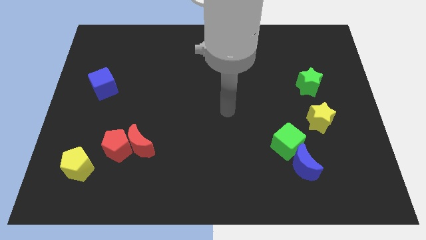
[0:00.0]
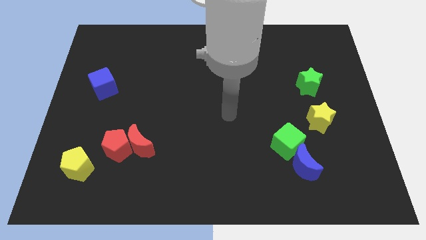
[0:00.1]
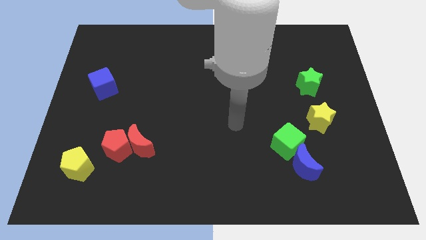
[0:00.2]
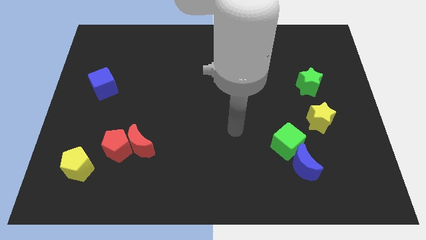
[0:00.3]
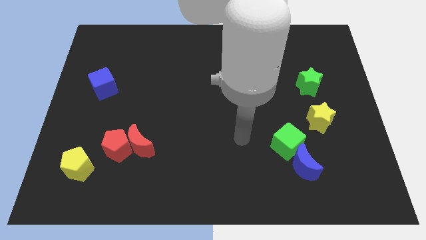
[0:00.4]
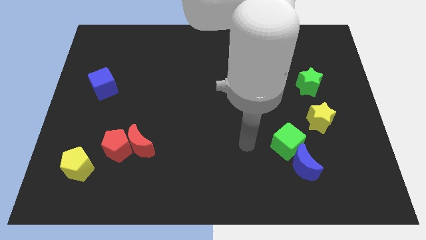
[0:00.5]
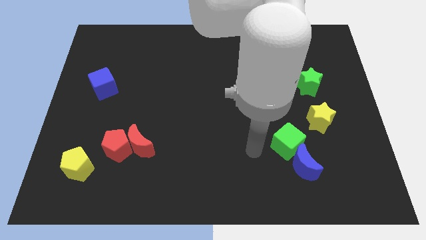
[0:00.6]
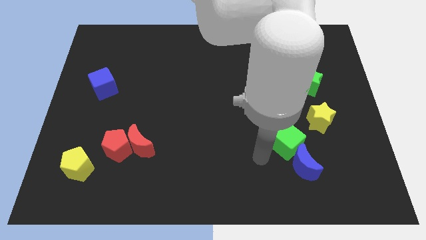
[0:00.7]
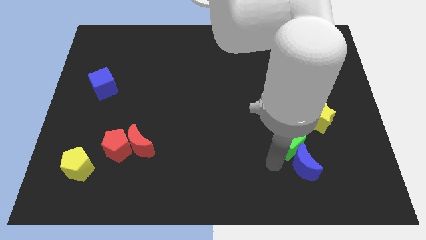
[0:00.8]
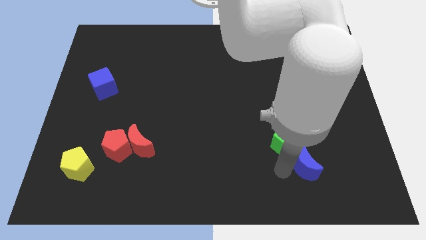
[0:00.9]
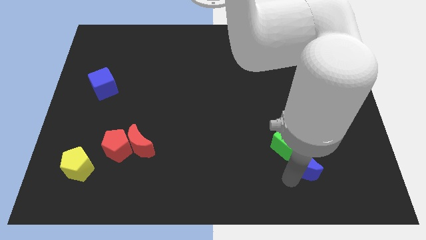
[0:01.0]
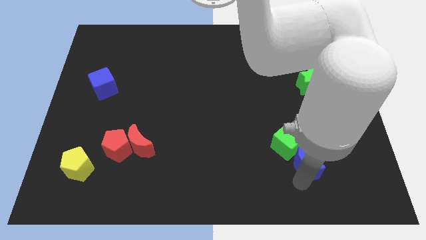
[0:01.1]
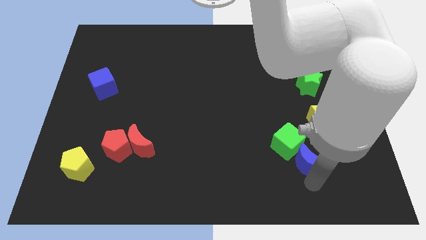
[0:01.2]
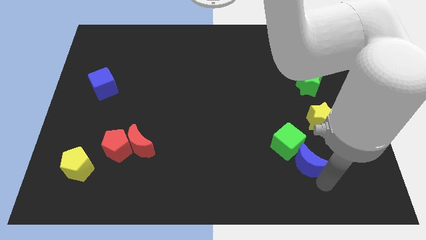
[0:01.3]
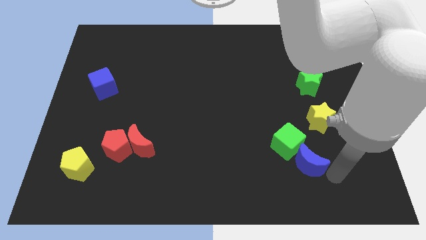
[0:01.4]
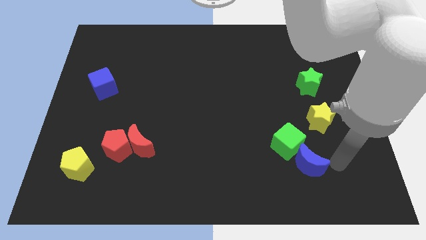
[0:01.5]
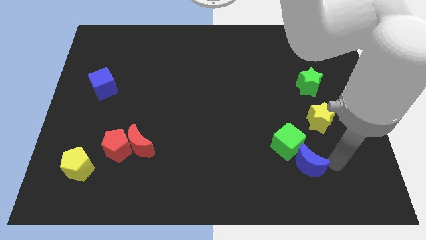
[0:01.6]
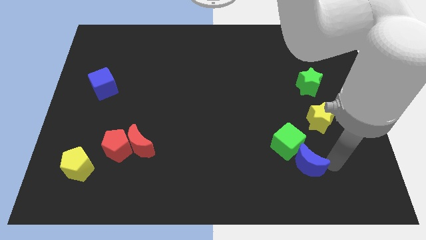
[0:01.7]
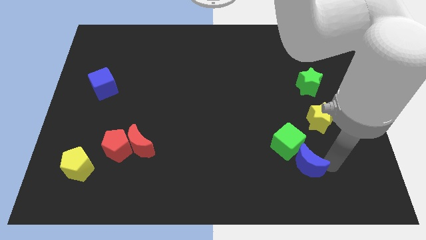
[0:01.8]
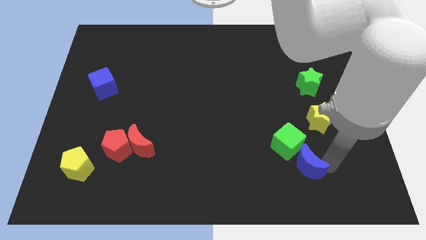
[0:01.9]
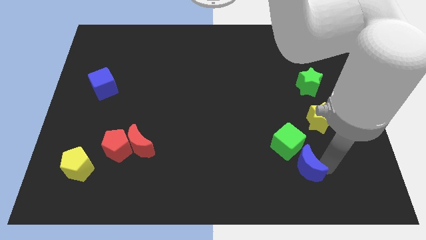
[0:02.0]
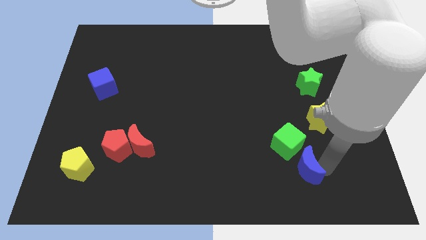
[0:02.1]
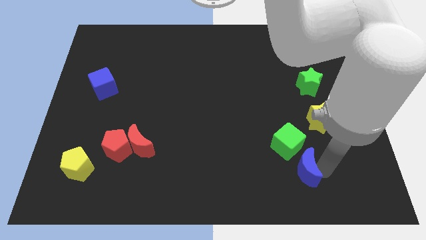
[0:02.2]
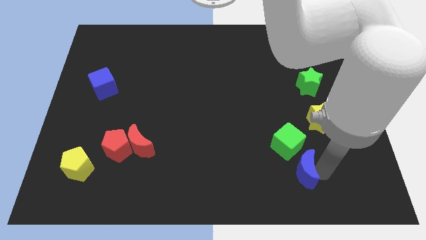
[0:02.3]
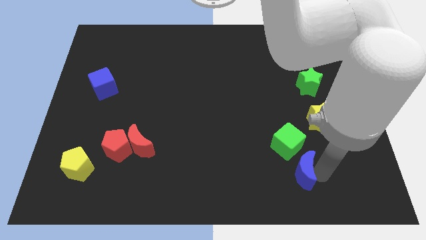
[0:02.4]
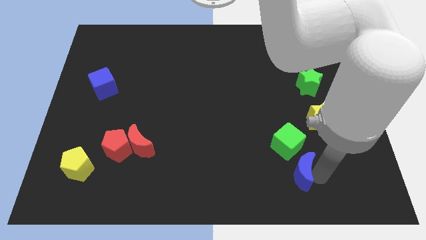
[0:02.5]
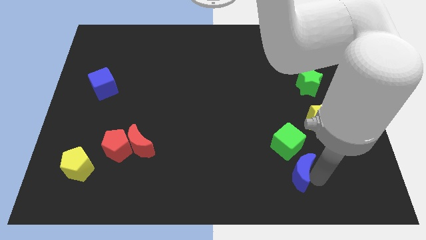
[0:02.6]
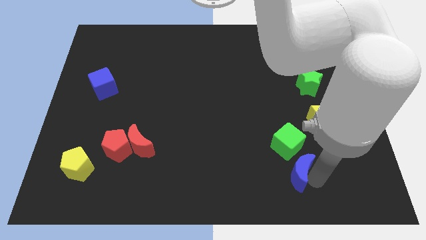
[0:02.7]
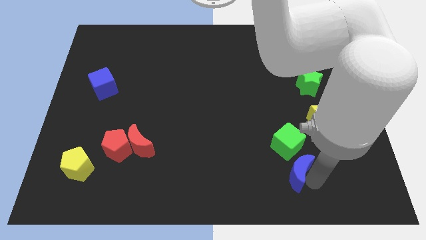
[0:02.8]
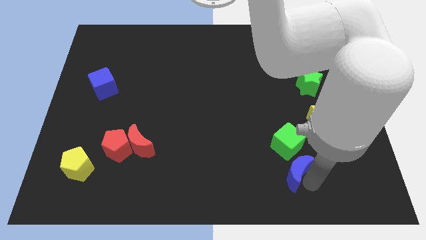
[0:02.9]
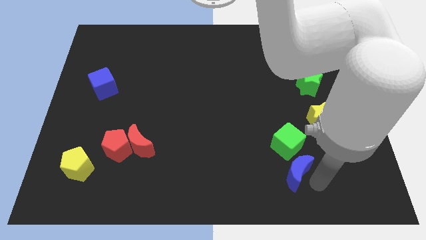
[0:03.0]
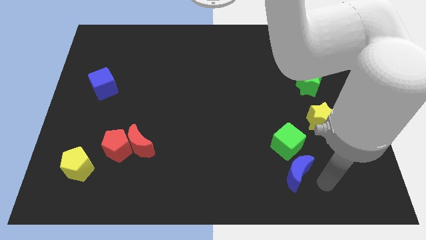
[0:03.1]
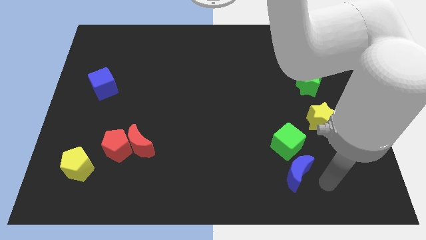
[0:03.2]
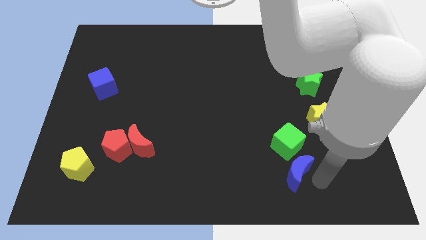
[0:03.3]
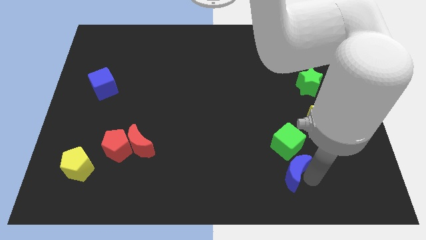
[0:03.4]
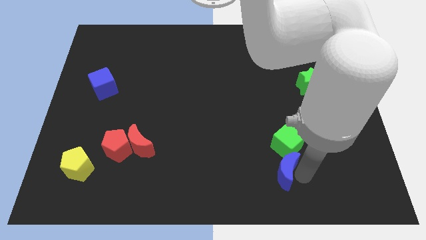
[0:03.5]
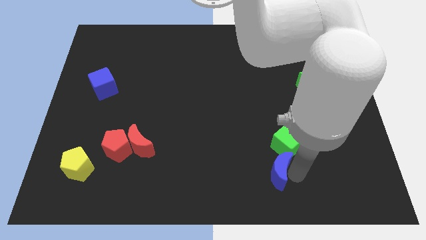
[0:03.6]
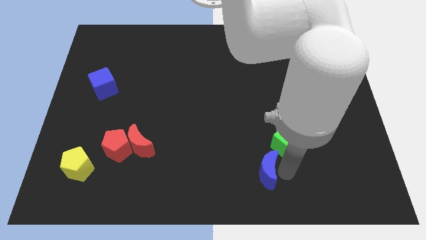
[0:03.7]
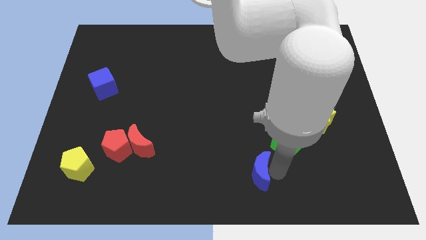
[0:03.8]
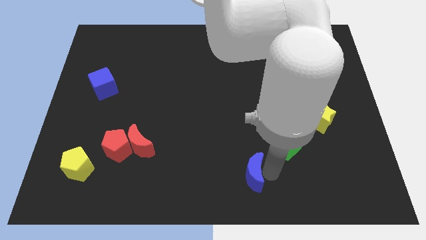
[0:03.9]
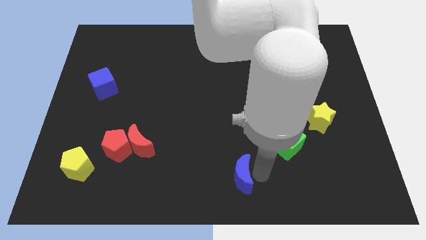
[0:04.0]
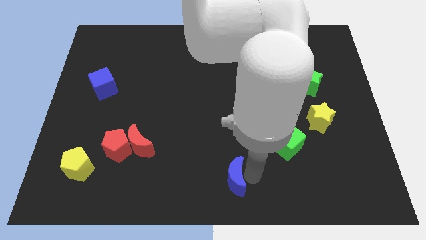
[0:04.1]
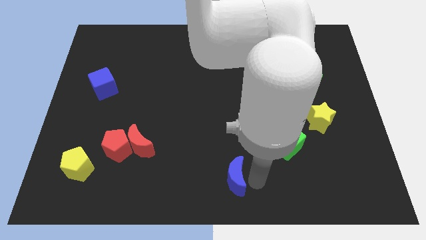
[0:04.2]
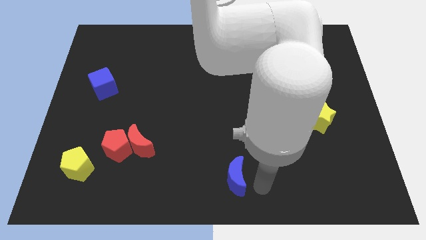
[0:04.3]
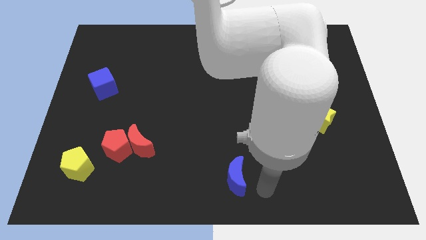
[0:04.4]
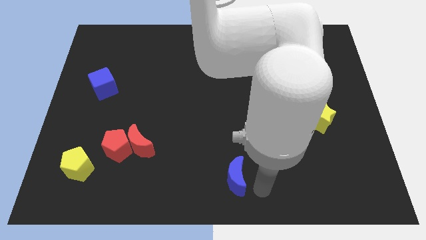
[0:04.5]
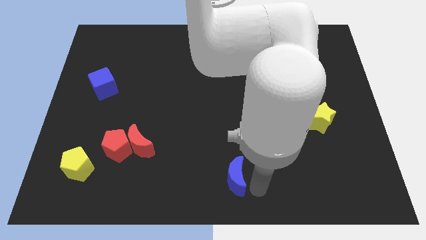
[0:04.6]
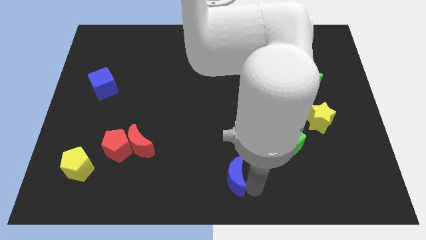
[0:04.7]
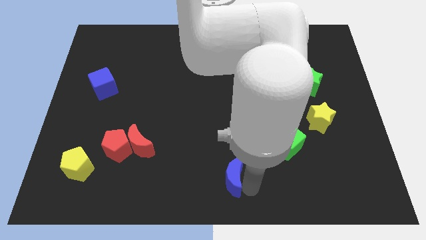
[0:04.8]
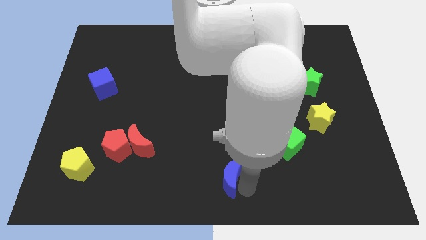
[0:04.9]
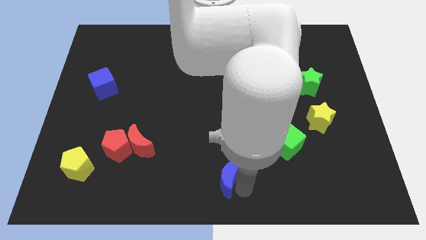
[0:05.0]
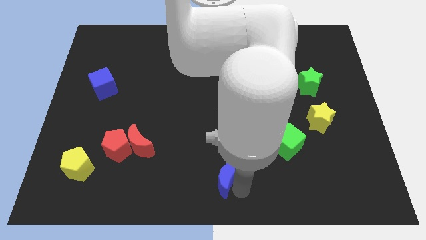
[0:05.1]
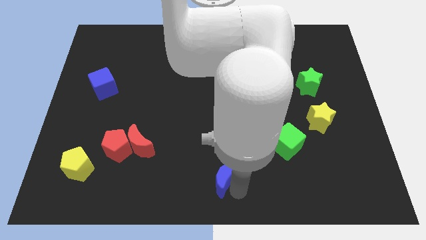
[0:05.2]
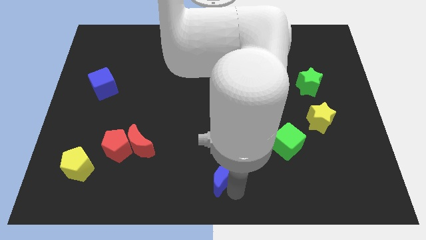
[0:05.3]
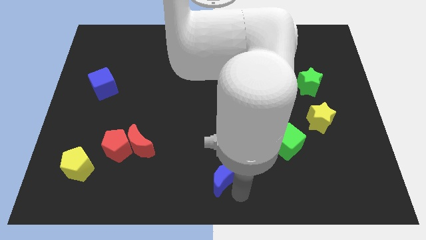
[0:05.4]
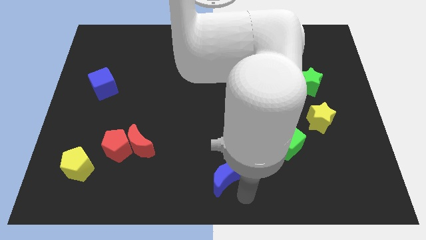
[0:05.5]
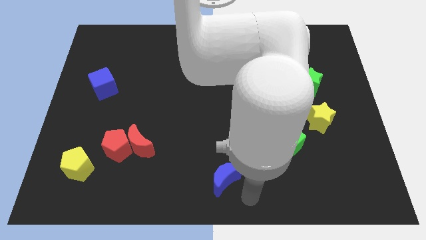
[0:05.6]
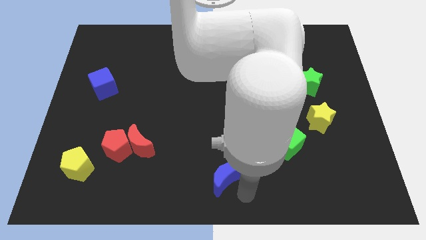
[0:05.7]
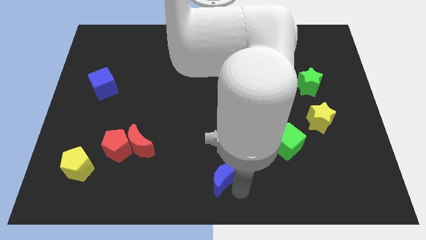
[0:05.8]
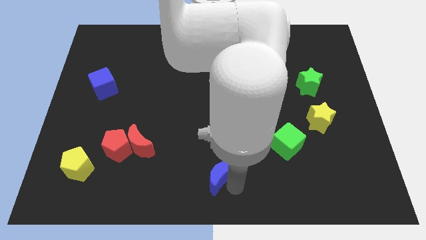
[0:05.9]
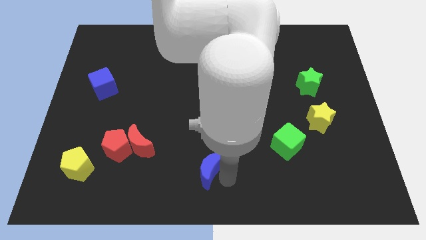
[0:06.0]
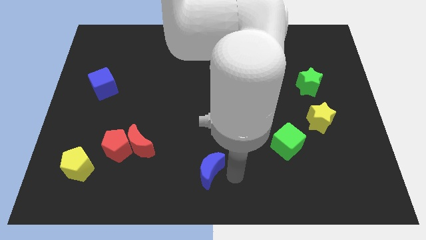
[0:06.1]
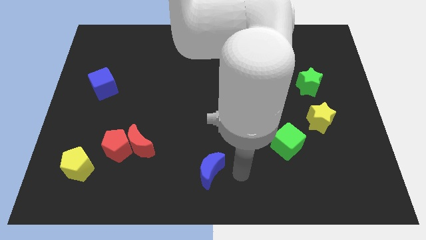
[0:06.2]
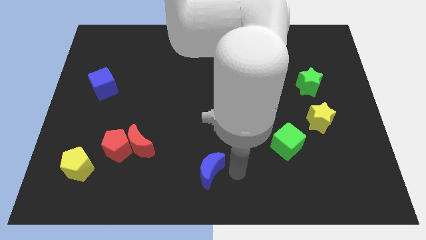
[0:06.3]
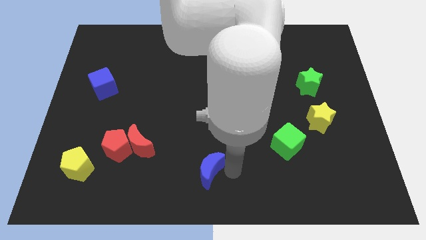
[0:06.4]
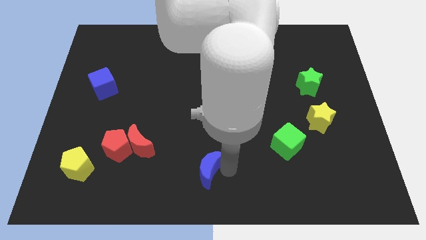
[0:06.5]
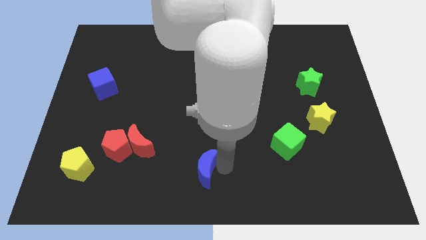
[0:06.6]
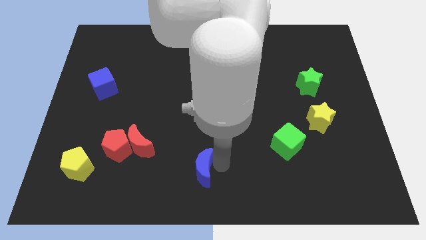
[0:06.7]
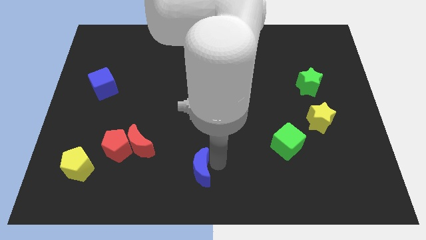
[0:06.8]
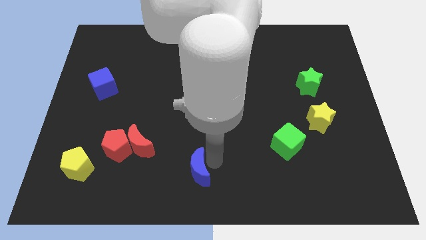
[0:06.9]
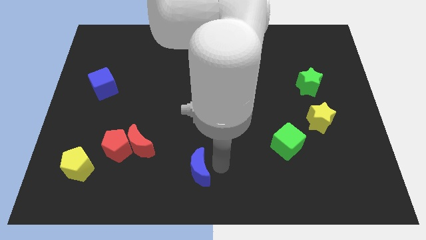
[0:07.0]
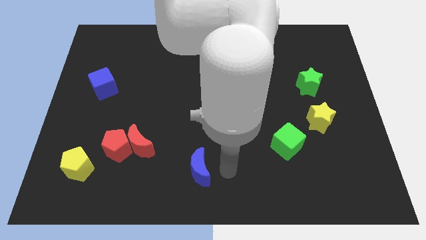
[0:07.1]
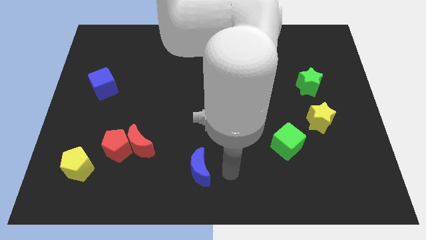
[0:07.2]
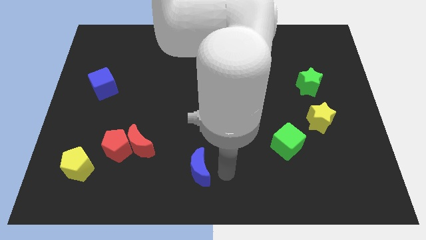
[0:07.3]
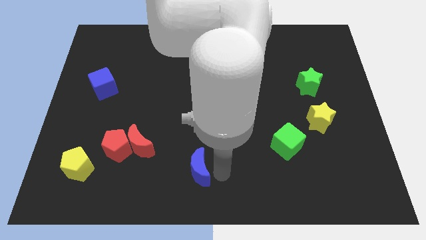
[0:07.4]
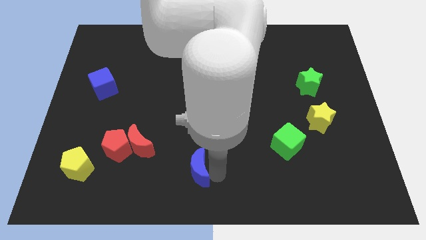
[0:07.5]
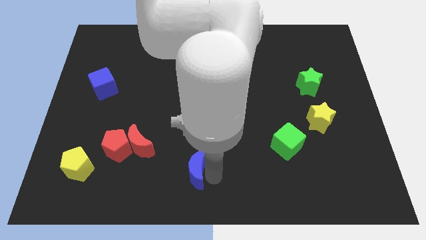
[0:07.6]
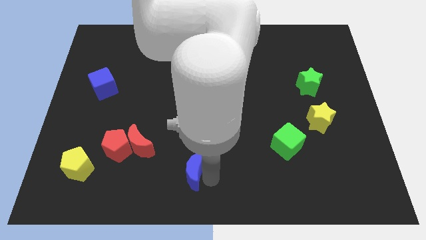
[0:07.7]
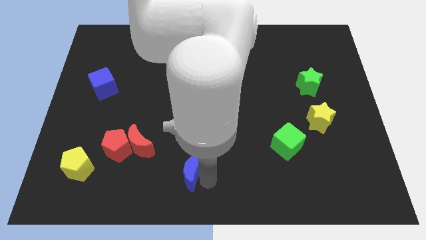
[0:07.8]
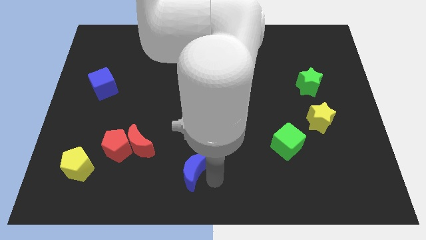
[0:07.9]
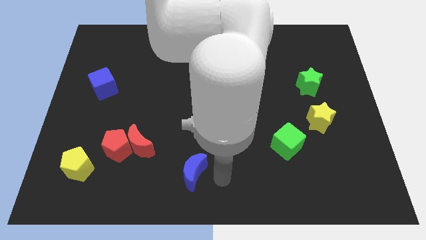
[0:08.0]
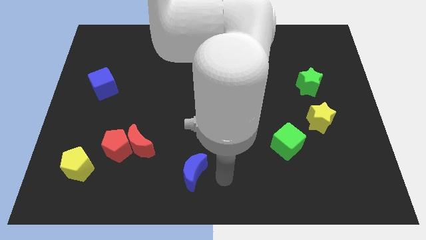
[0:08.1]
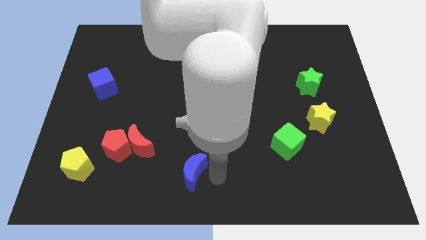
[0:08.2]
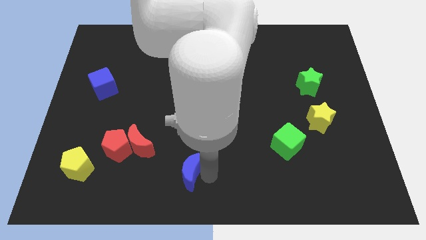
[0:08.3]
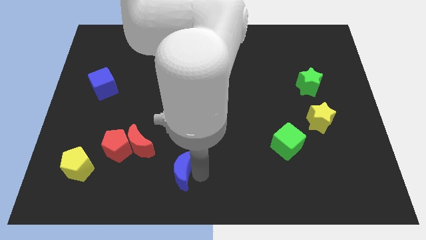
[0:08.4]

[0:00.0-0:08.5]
push the blue moon to the bottom right side of the red moon
